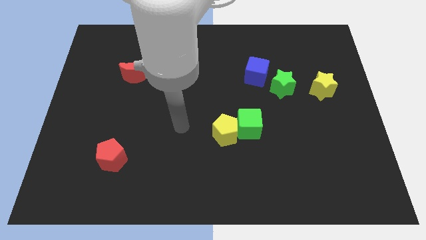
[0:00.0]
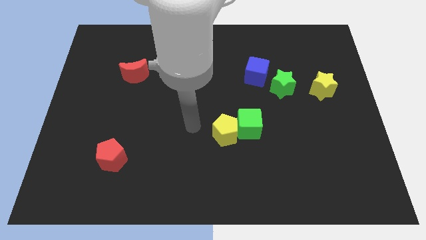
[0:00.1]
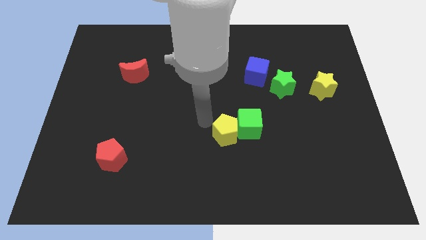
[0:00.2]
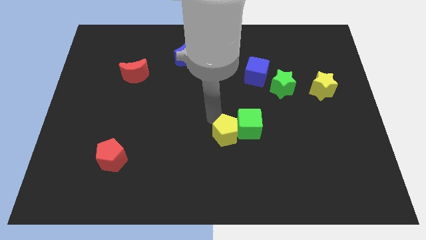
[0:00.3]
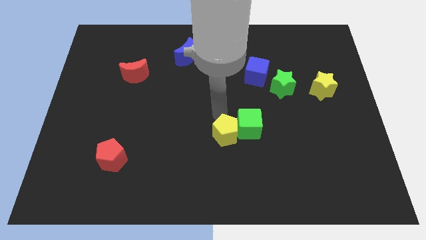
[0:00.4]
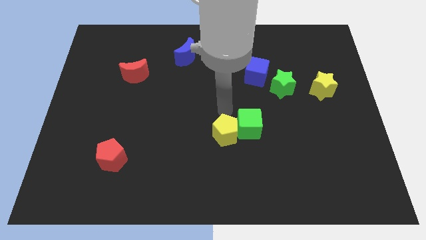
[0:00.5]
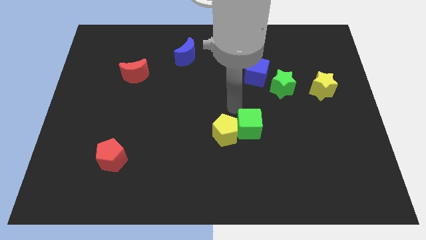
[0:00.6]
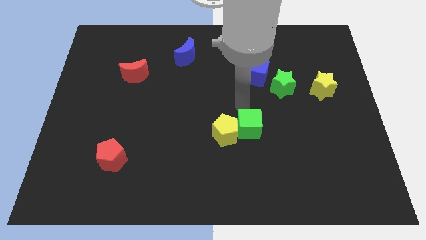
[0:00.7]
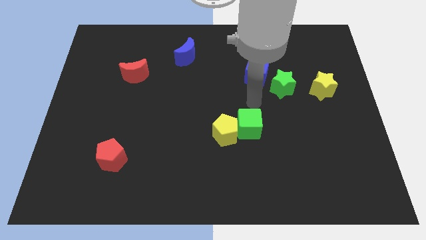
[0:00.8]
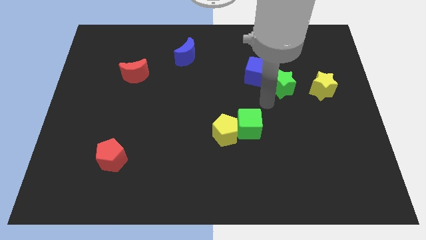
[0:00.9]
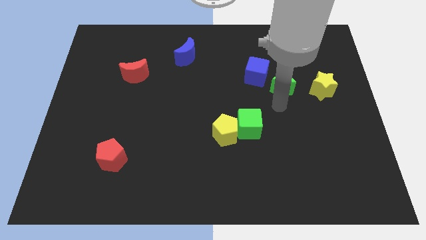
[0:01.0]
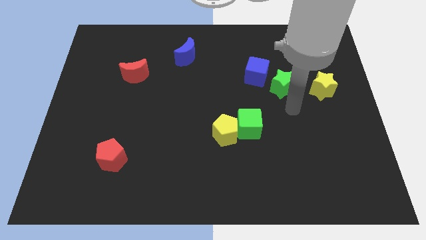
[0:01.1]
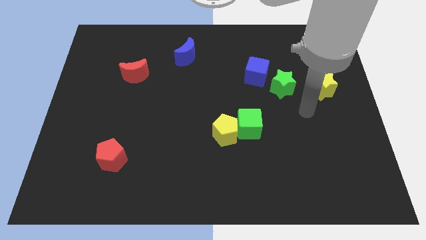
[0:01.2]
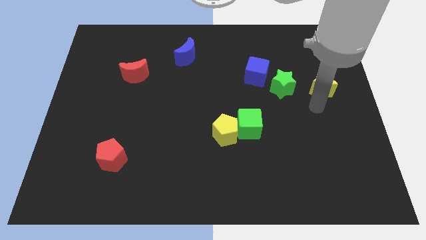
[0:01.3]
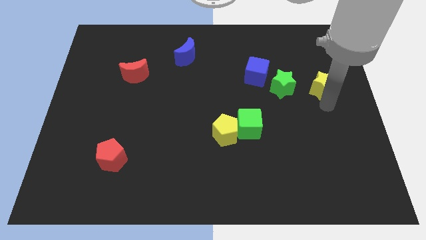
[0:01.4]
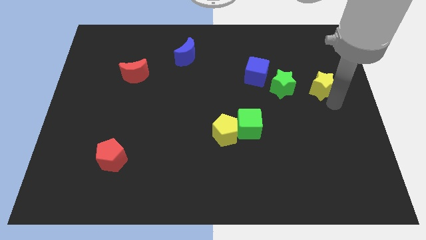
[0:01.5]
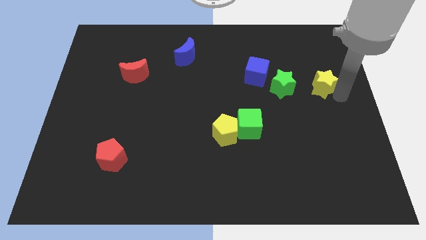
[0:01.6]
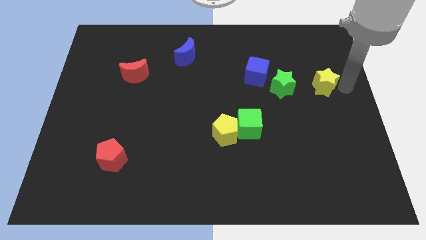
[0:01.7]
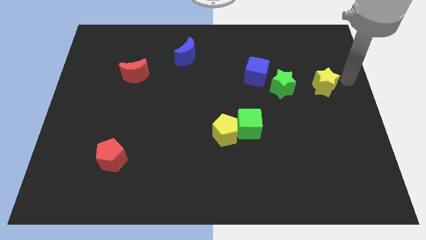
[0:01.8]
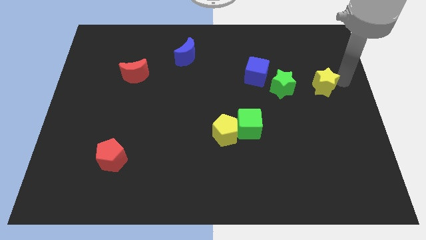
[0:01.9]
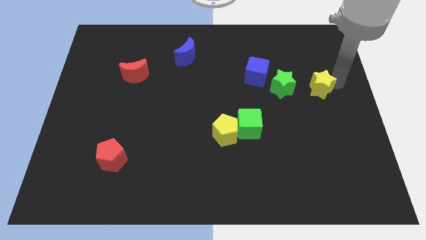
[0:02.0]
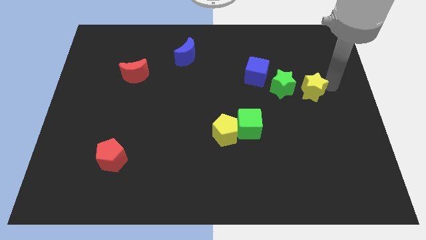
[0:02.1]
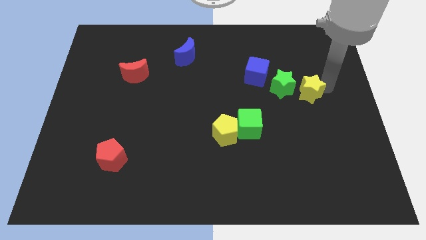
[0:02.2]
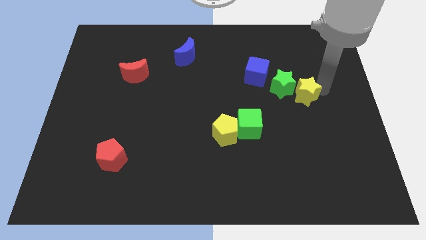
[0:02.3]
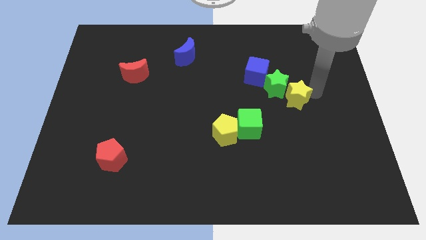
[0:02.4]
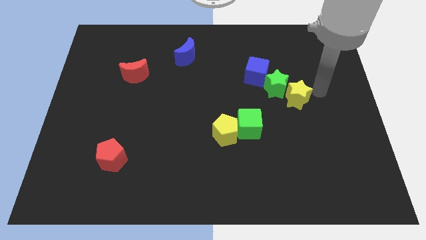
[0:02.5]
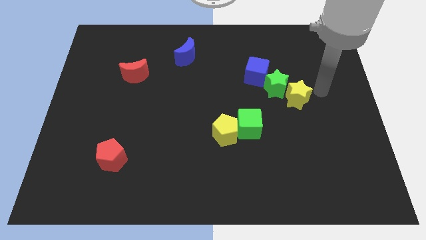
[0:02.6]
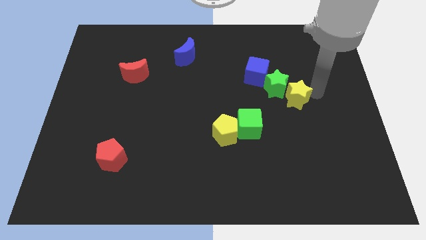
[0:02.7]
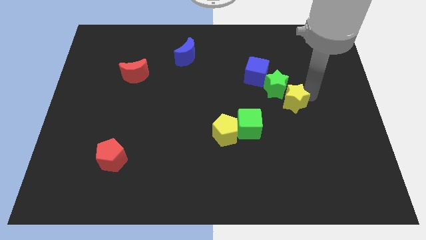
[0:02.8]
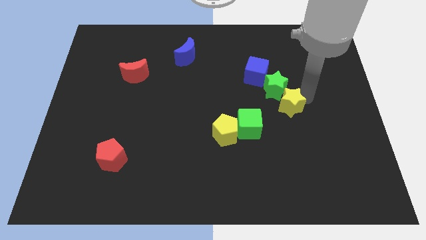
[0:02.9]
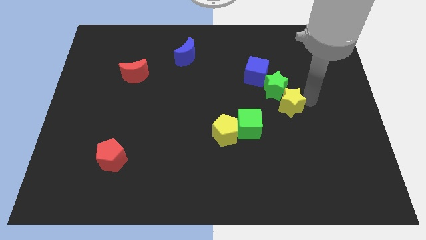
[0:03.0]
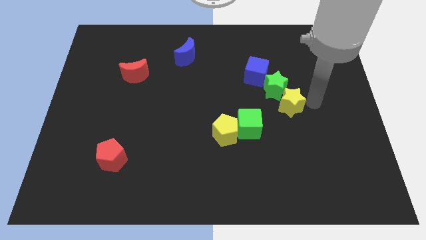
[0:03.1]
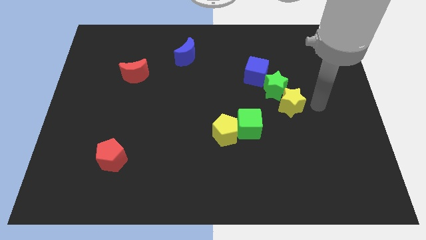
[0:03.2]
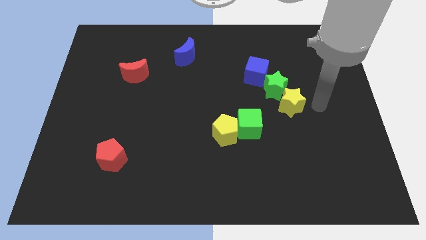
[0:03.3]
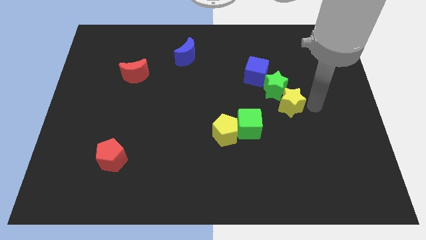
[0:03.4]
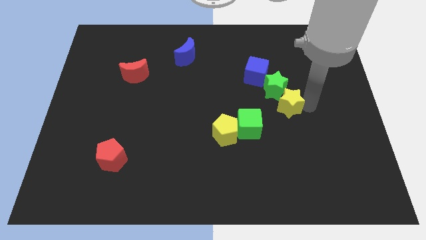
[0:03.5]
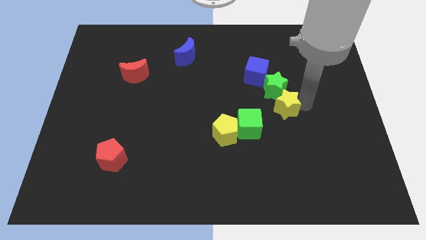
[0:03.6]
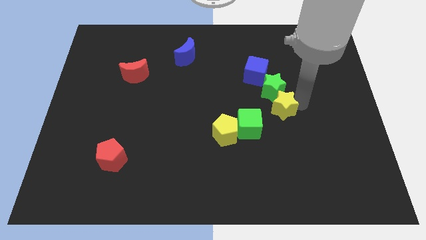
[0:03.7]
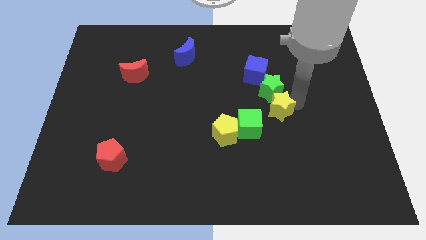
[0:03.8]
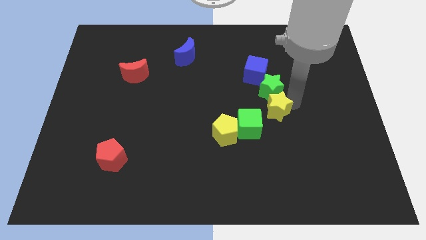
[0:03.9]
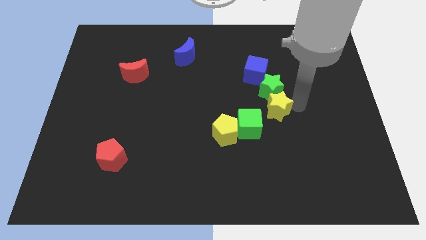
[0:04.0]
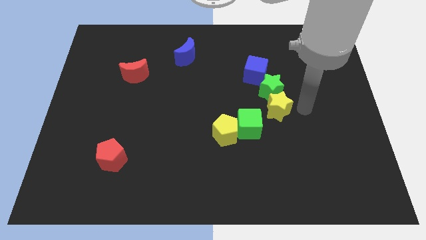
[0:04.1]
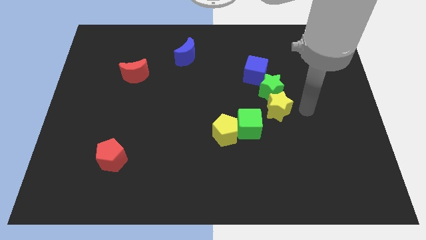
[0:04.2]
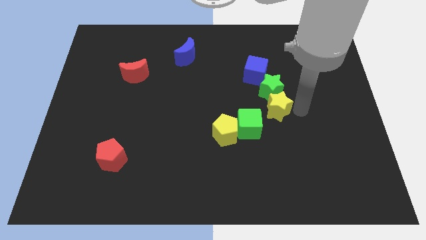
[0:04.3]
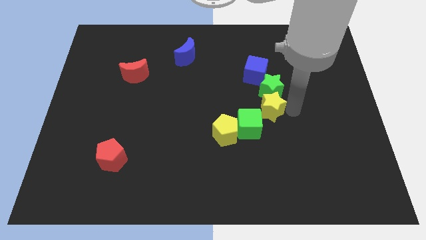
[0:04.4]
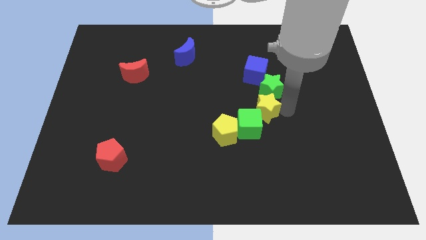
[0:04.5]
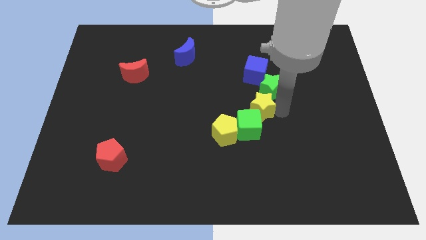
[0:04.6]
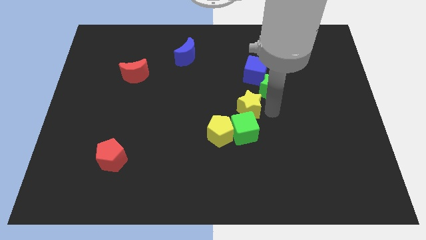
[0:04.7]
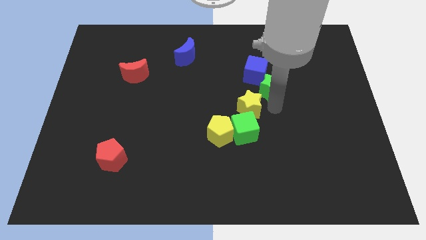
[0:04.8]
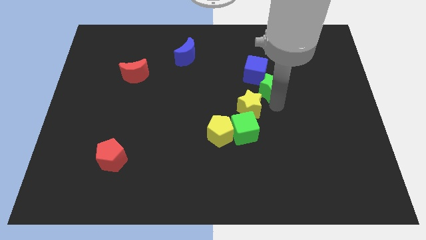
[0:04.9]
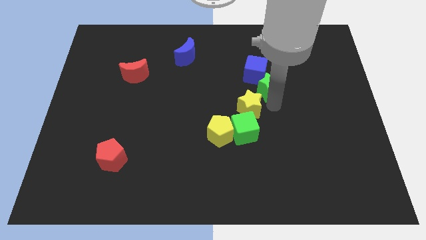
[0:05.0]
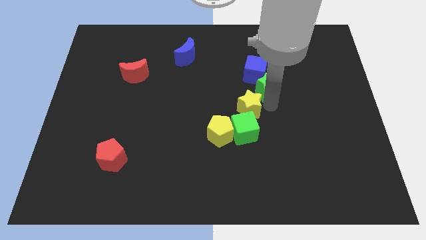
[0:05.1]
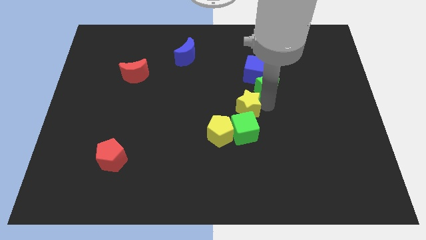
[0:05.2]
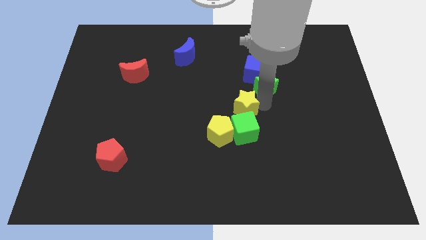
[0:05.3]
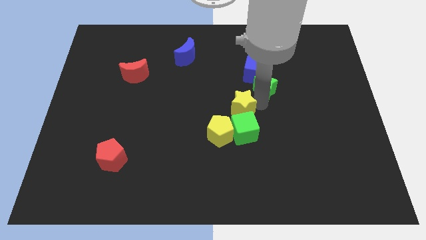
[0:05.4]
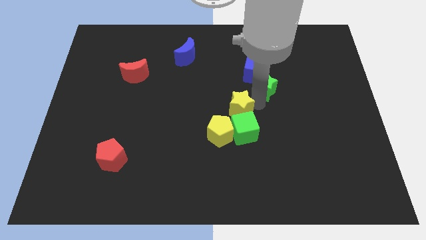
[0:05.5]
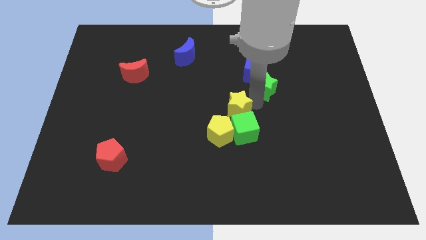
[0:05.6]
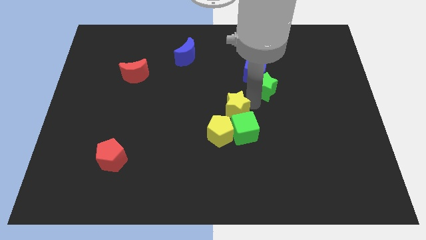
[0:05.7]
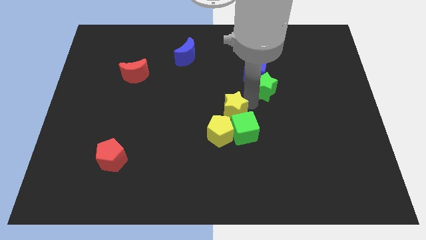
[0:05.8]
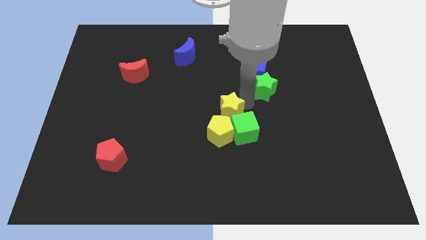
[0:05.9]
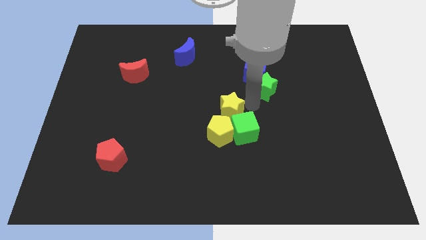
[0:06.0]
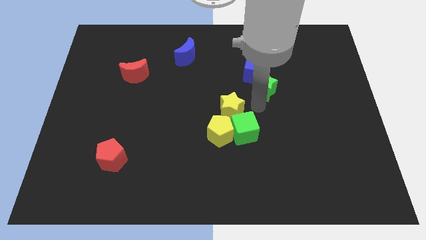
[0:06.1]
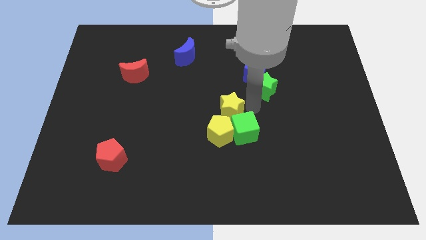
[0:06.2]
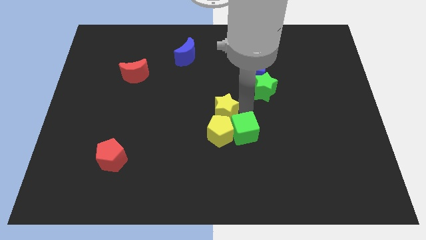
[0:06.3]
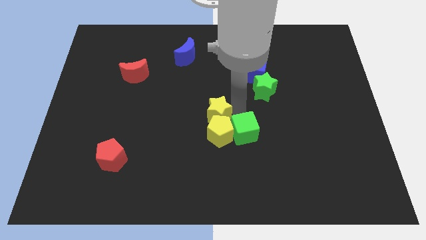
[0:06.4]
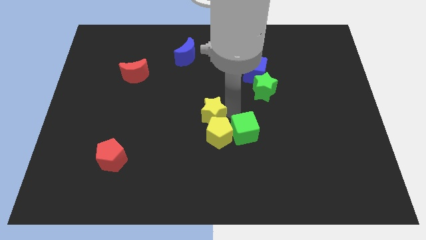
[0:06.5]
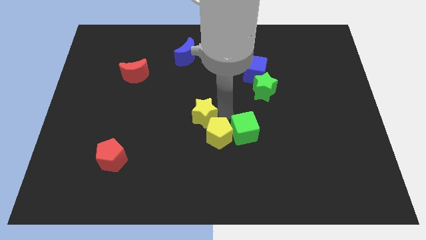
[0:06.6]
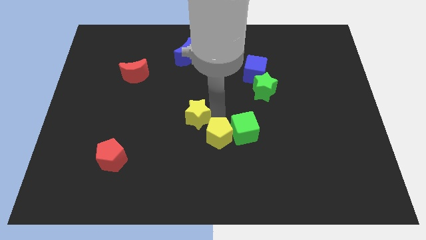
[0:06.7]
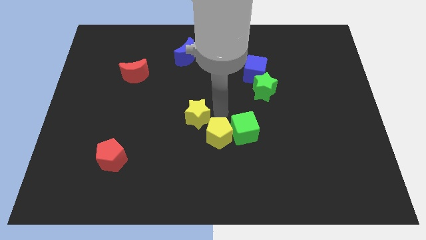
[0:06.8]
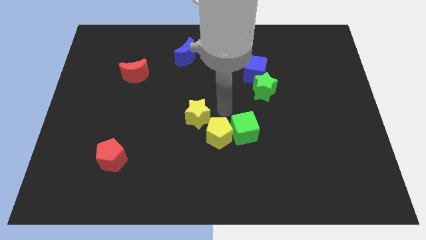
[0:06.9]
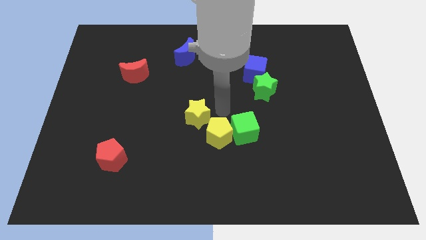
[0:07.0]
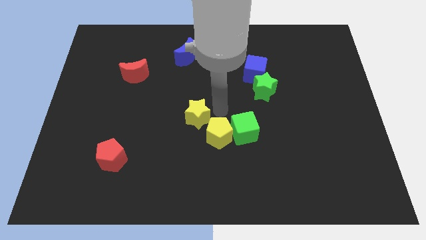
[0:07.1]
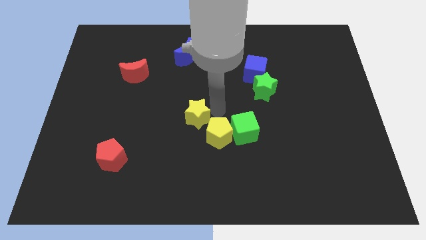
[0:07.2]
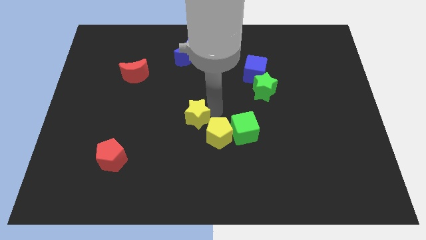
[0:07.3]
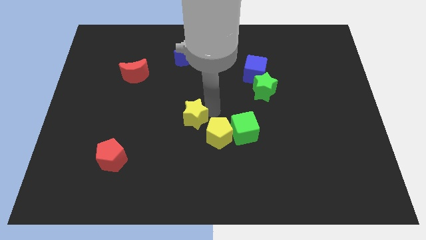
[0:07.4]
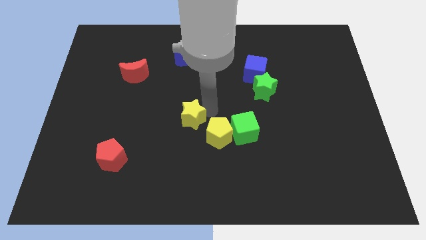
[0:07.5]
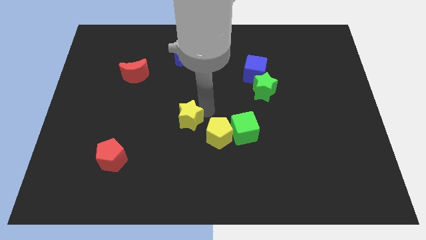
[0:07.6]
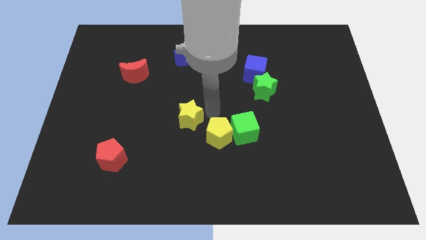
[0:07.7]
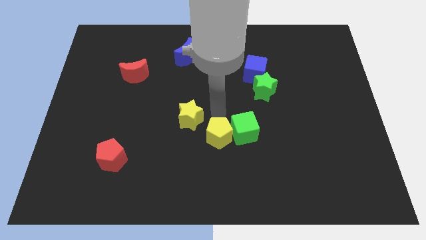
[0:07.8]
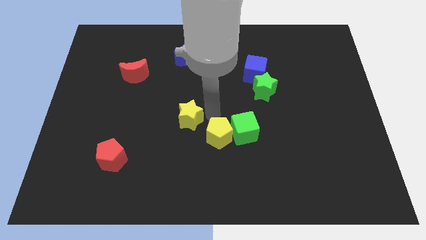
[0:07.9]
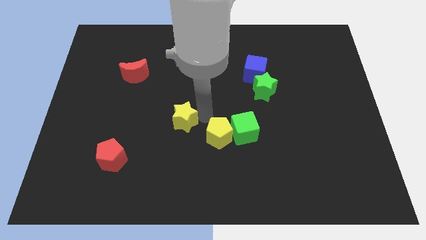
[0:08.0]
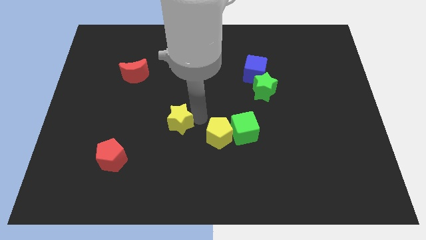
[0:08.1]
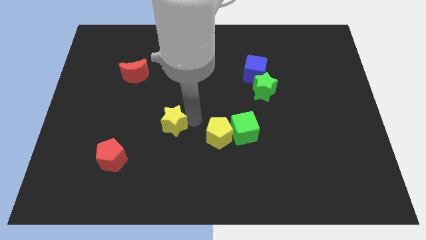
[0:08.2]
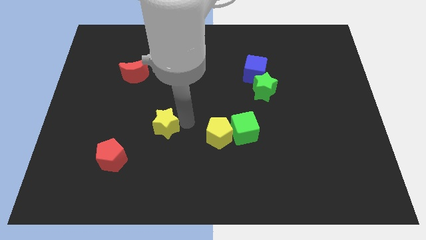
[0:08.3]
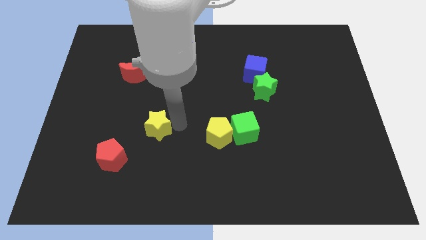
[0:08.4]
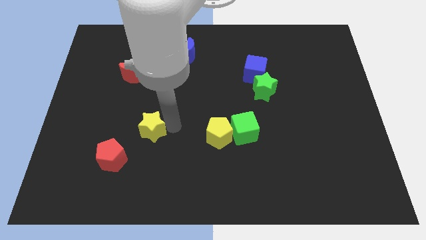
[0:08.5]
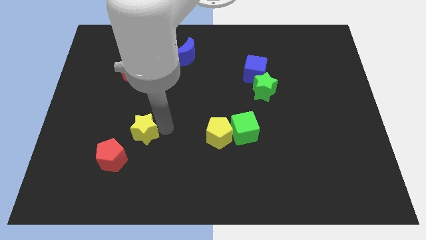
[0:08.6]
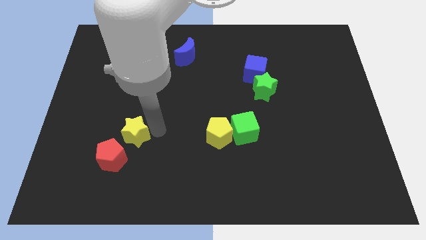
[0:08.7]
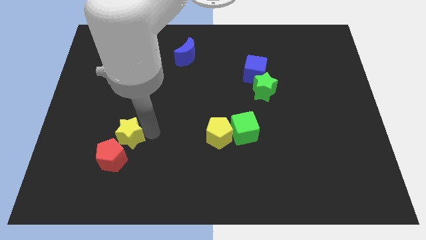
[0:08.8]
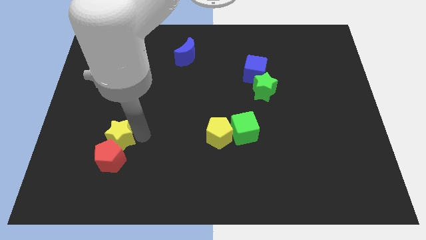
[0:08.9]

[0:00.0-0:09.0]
move the yellow star diagonally up and to the left of the red pentagon
